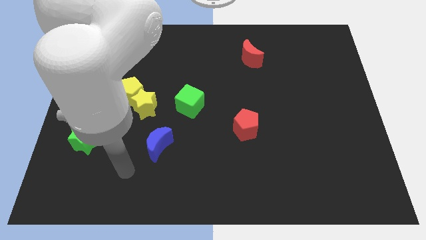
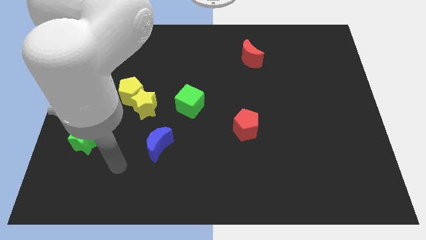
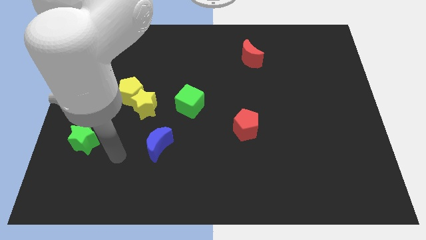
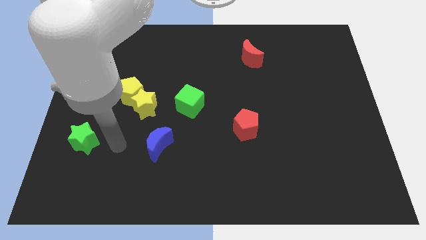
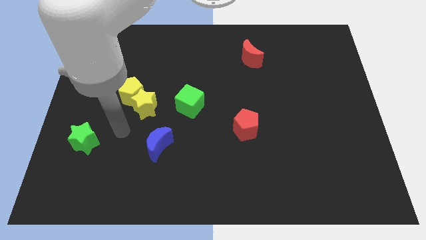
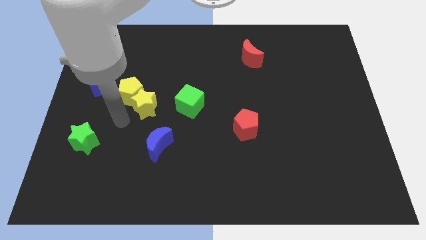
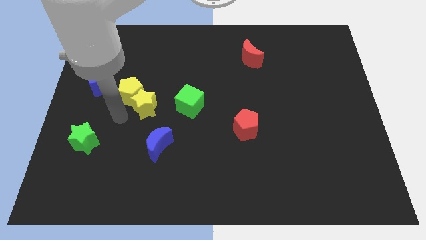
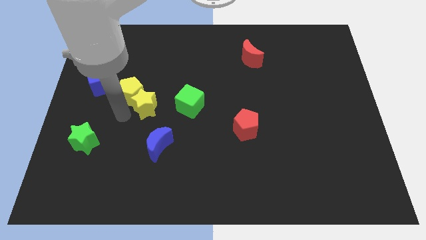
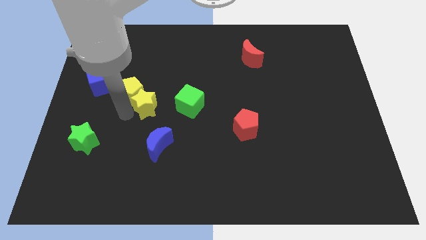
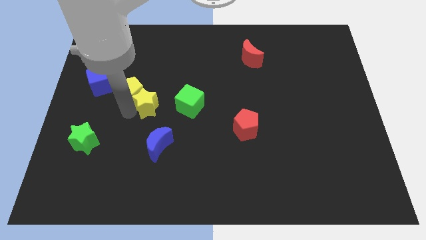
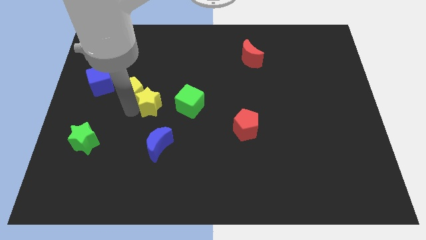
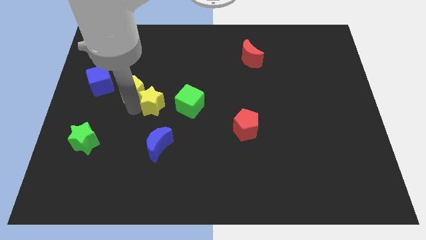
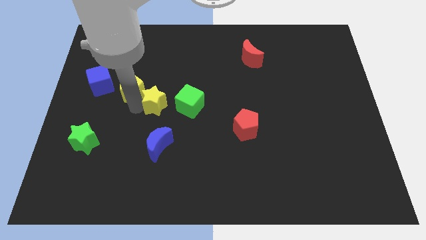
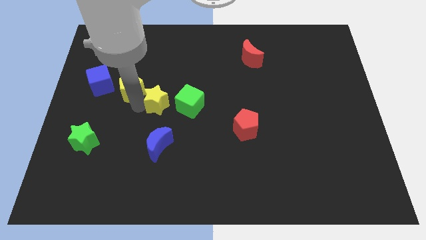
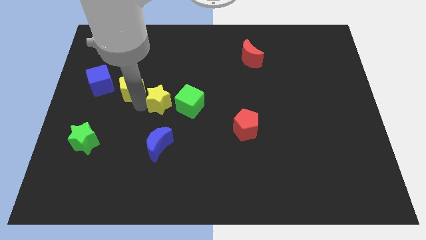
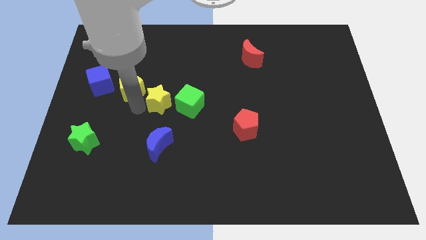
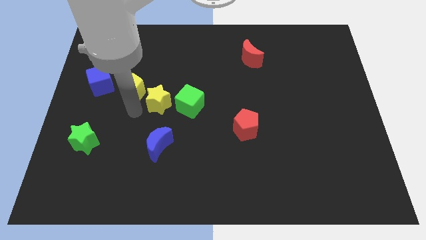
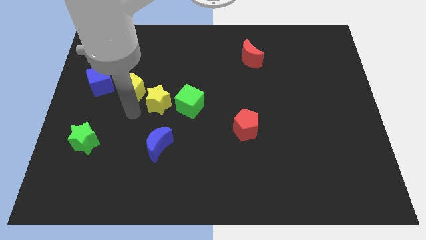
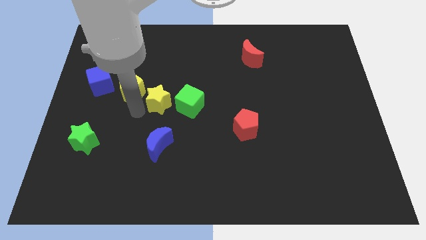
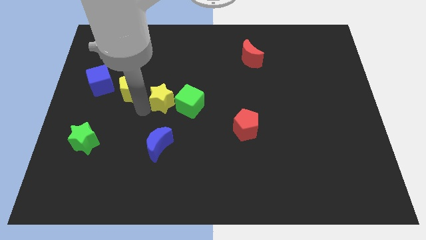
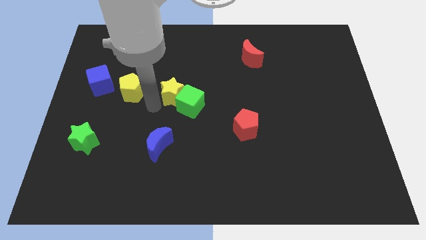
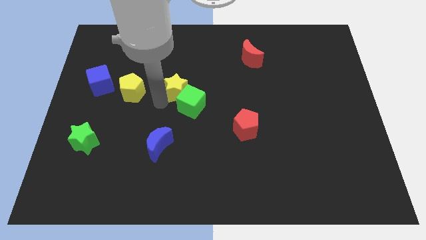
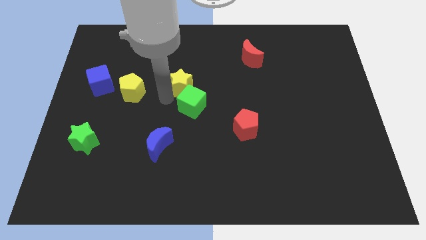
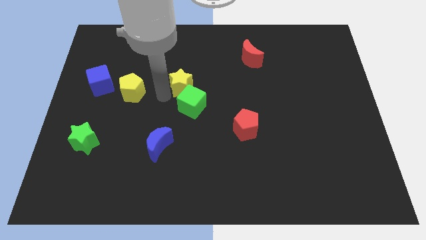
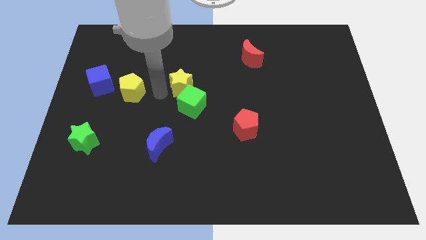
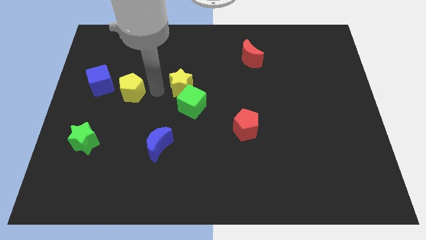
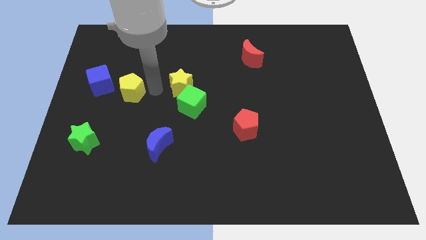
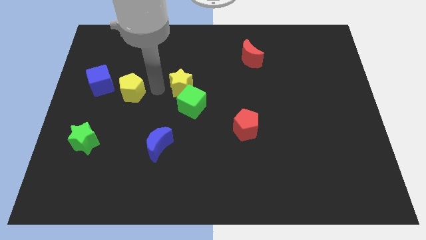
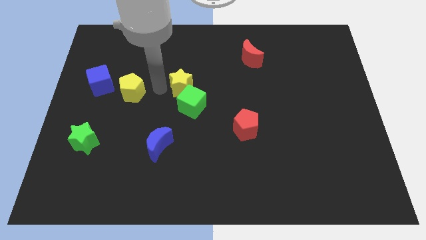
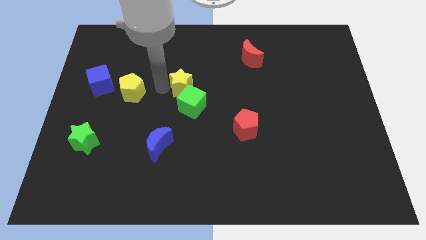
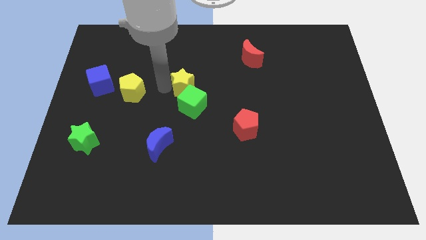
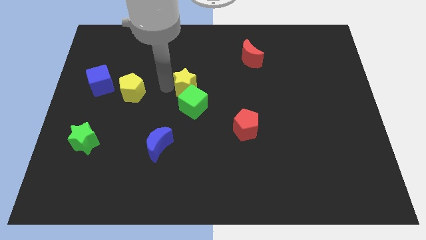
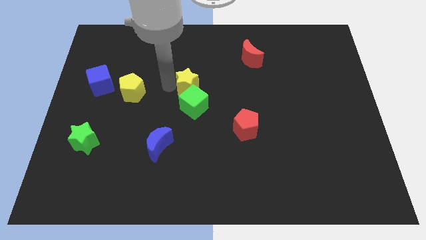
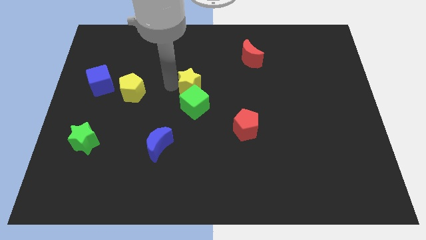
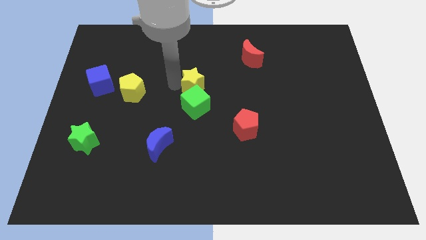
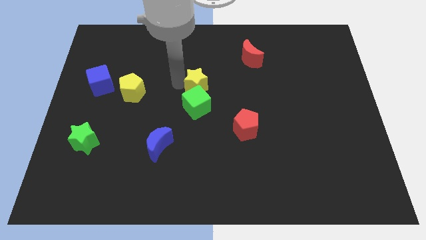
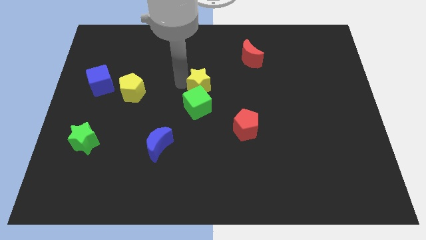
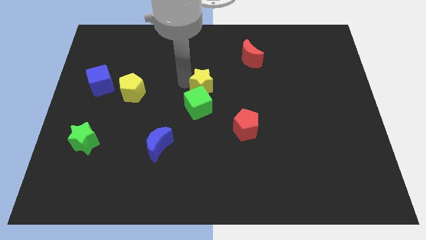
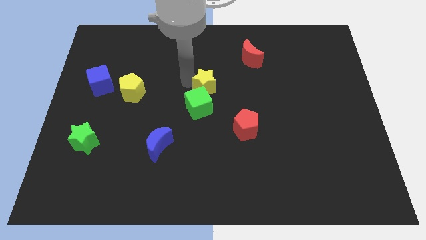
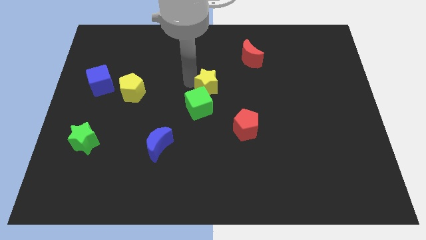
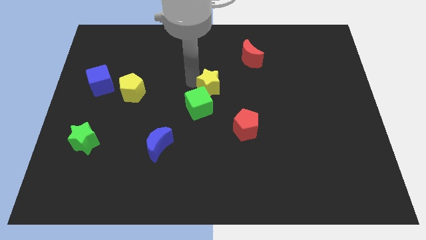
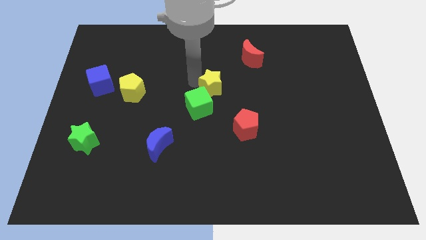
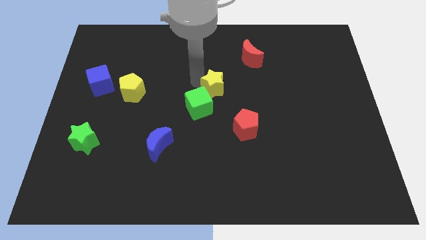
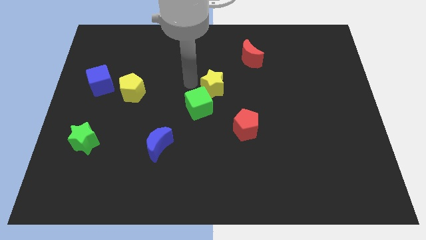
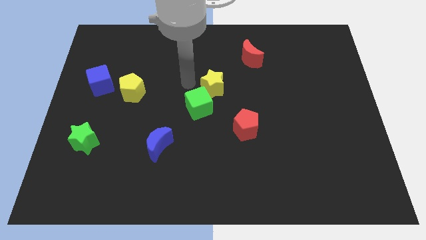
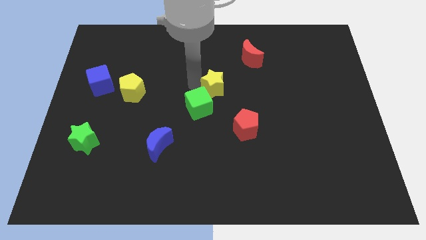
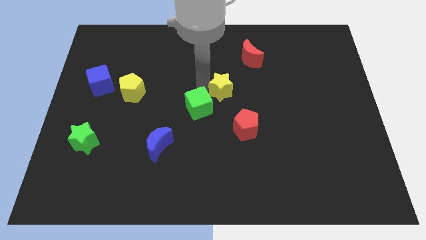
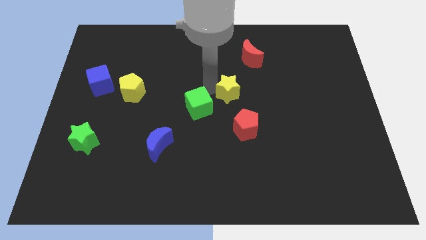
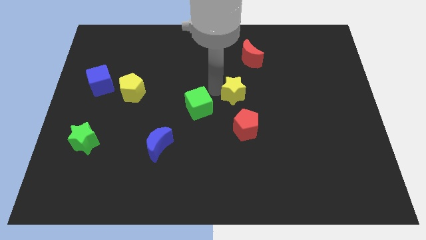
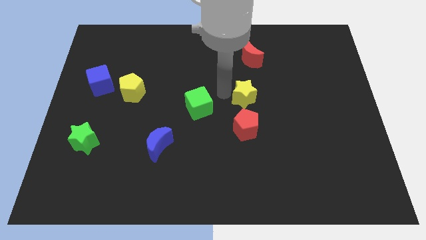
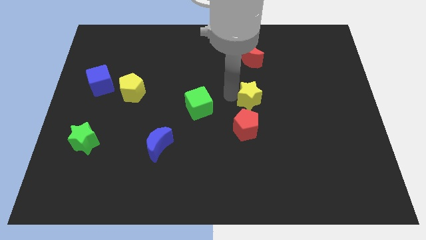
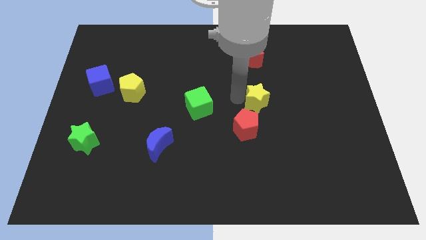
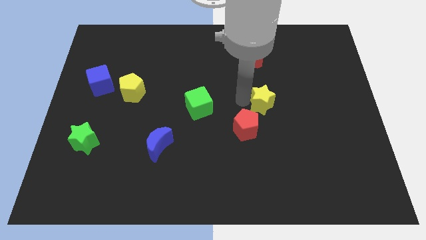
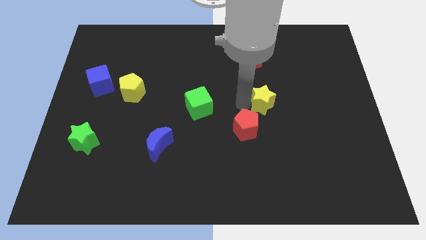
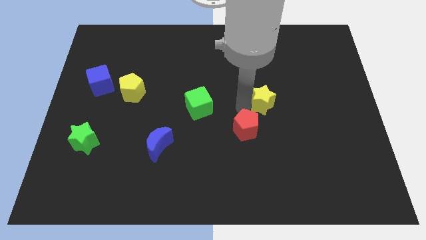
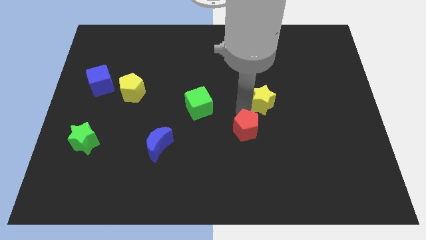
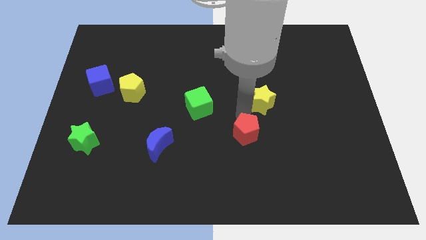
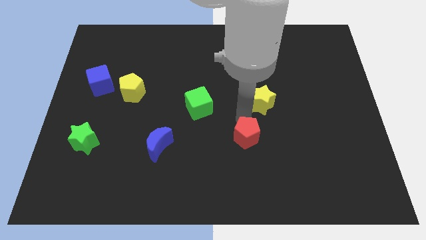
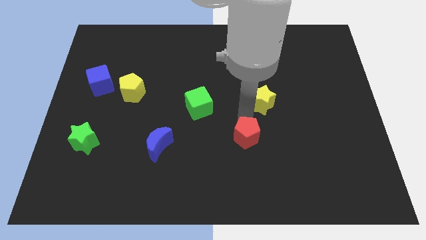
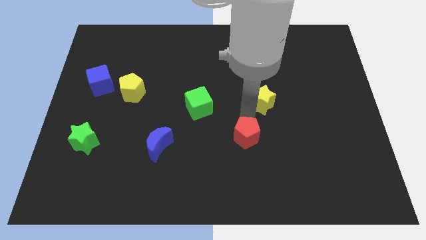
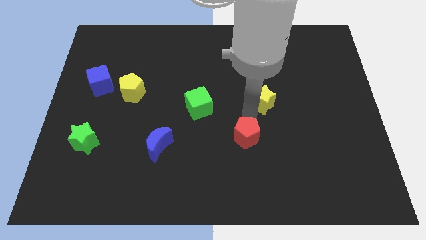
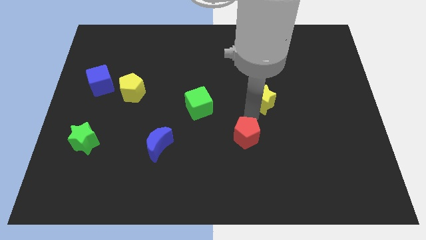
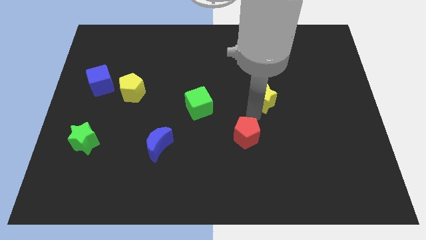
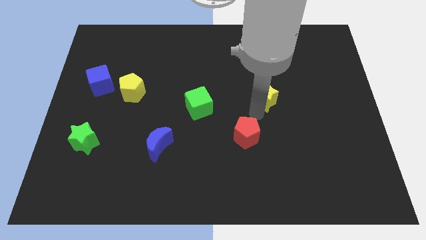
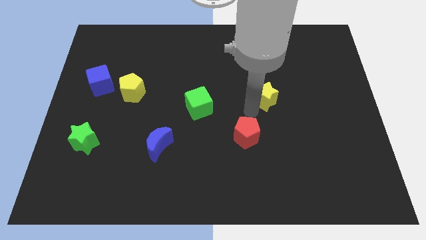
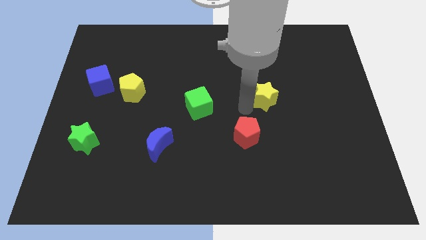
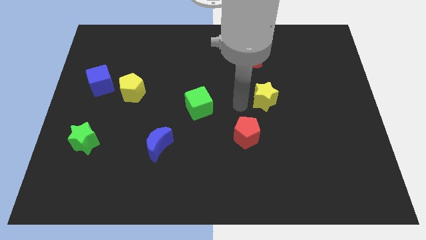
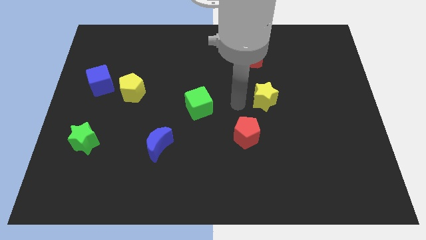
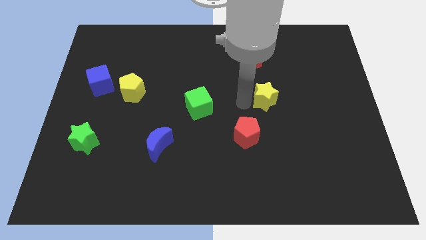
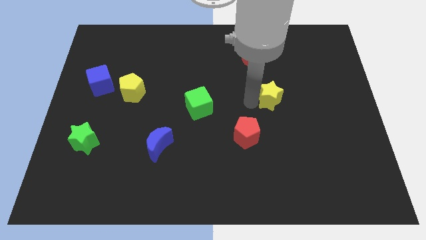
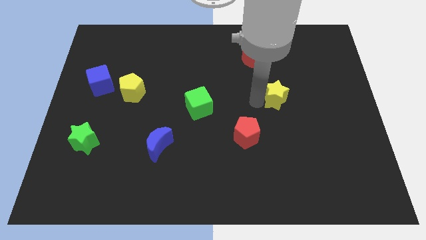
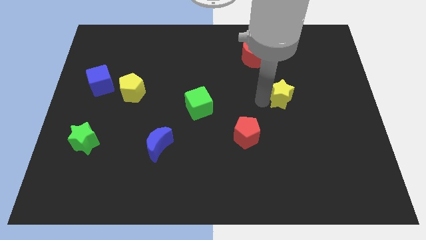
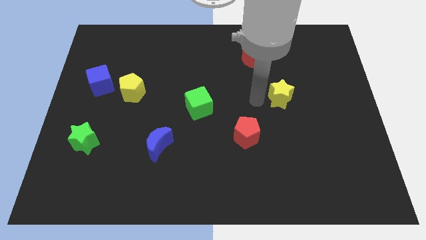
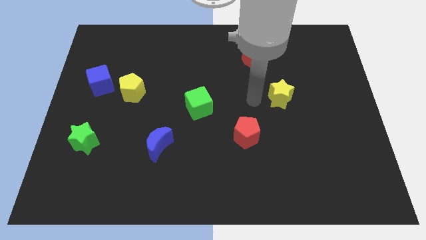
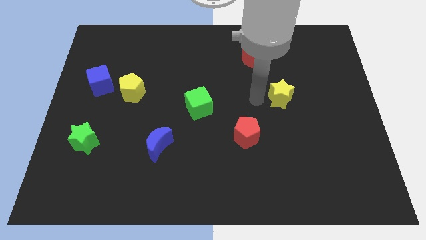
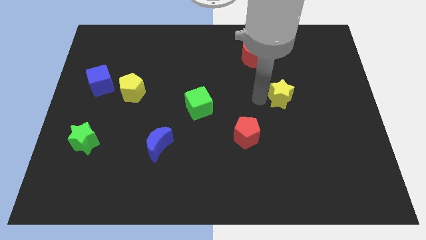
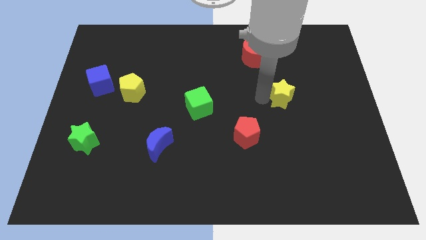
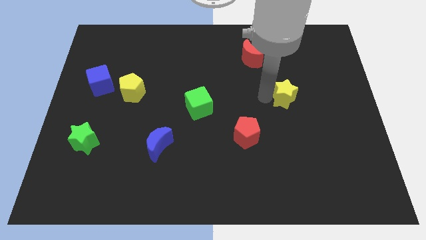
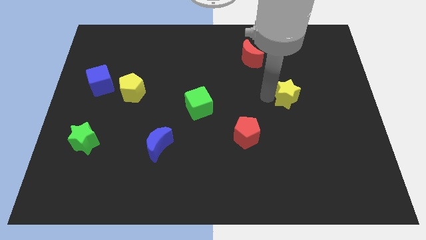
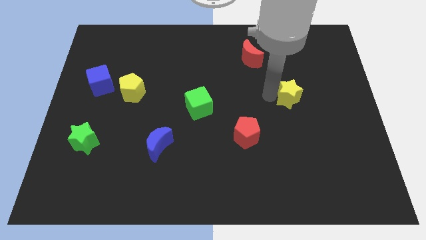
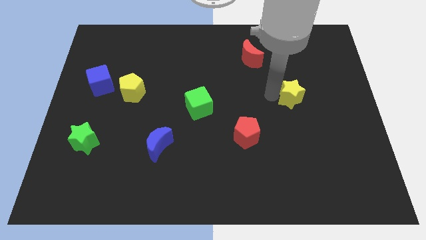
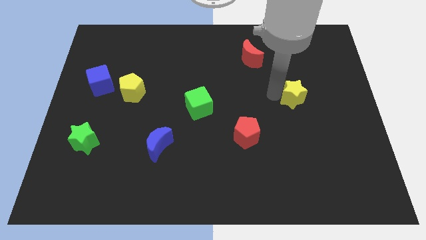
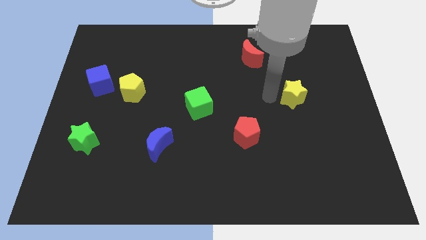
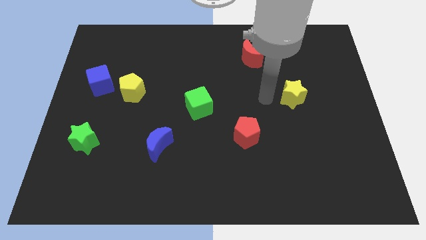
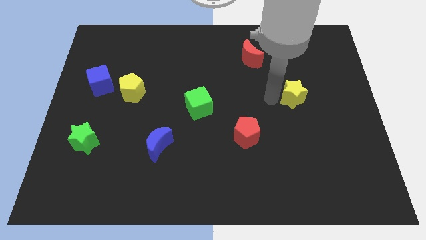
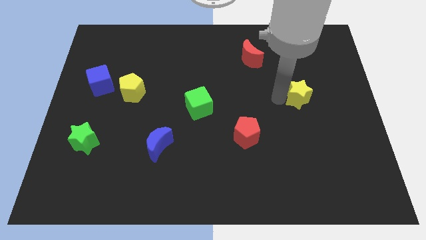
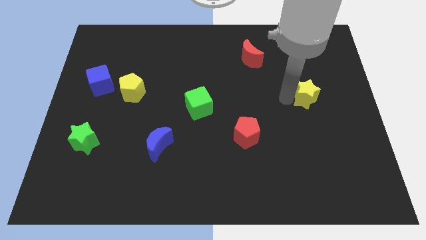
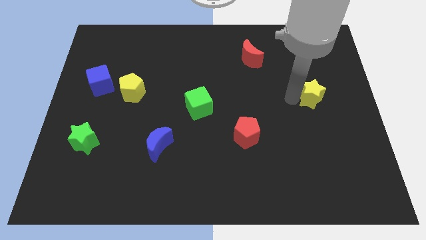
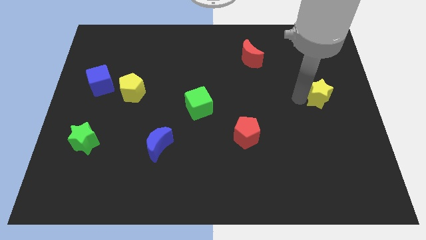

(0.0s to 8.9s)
move the yellow star to the center right
